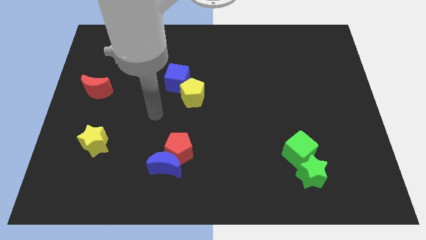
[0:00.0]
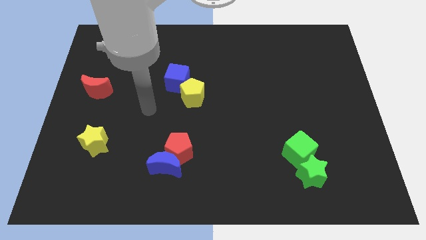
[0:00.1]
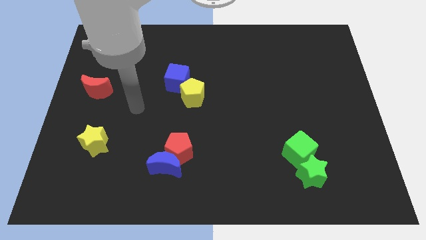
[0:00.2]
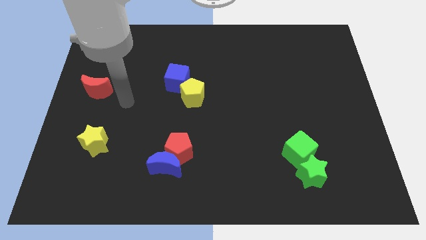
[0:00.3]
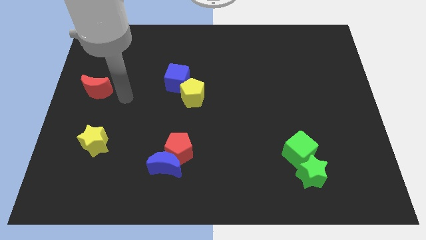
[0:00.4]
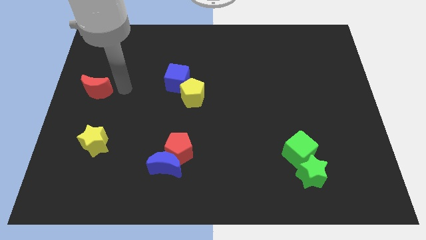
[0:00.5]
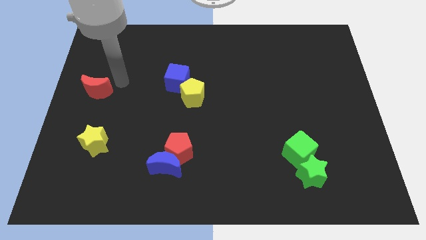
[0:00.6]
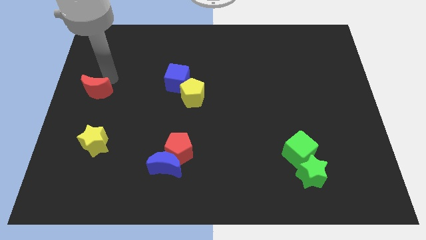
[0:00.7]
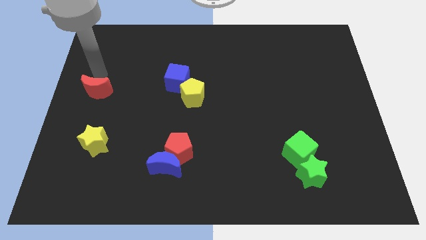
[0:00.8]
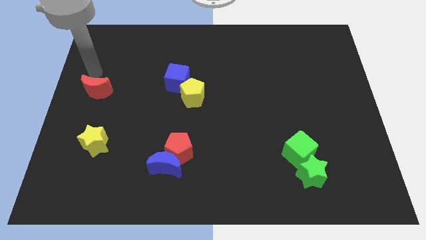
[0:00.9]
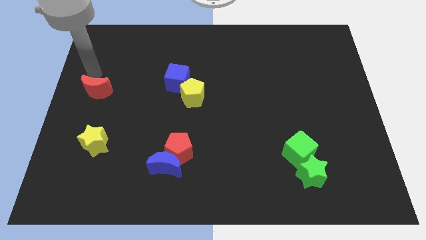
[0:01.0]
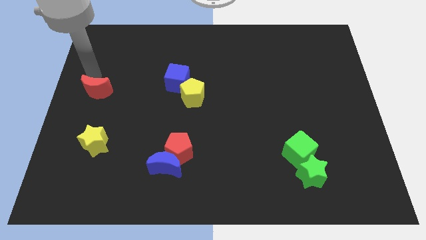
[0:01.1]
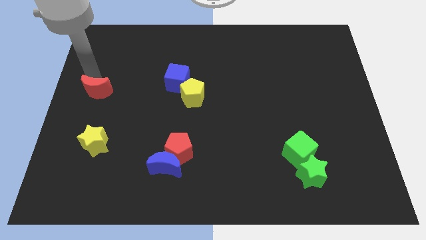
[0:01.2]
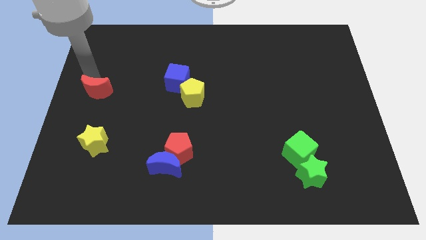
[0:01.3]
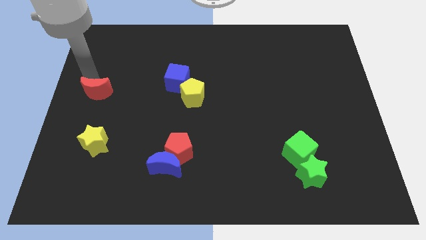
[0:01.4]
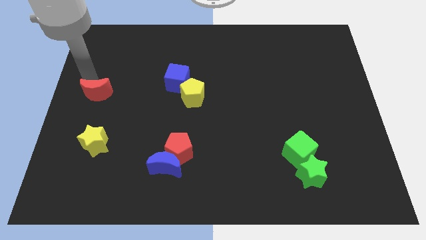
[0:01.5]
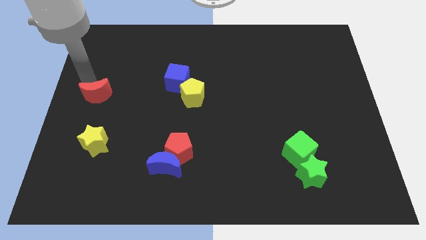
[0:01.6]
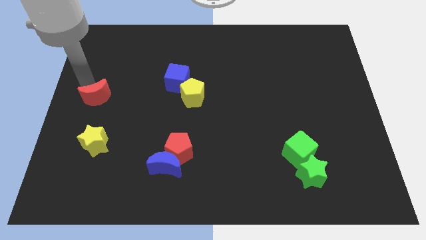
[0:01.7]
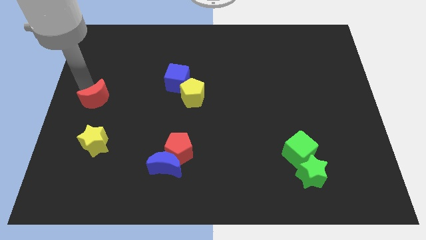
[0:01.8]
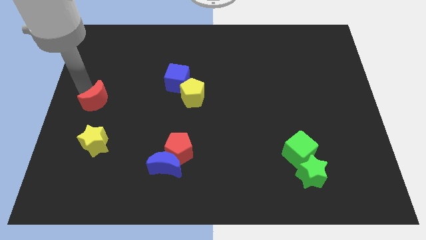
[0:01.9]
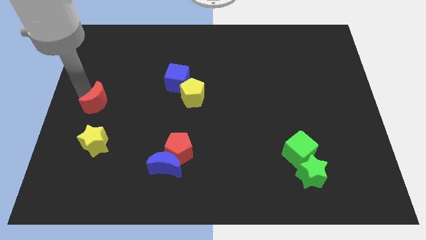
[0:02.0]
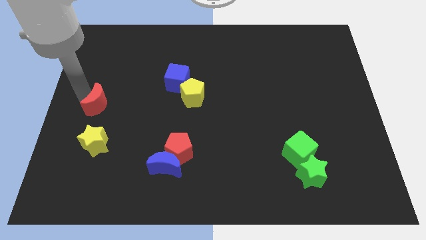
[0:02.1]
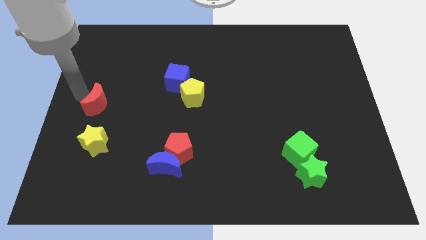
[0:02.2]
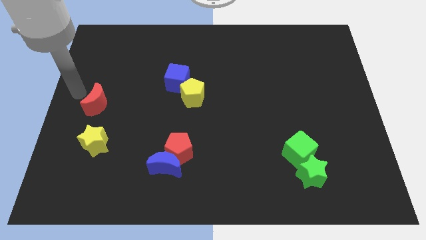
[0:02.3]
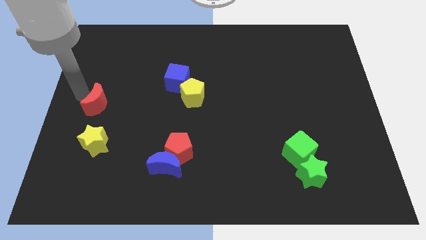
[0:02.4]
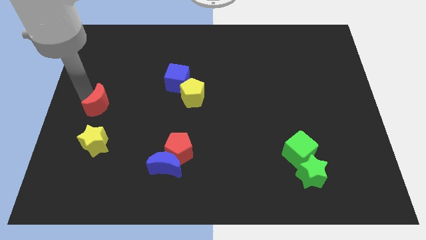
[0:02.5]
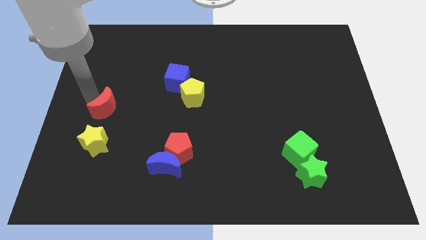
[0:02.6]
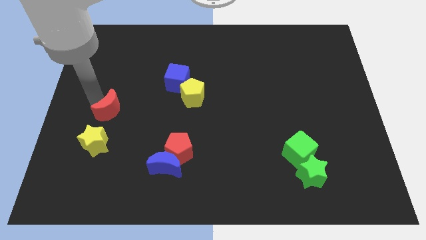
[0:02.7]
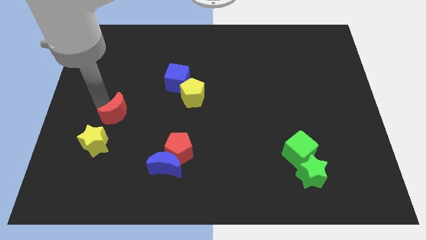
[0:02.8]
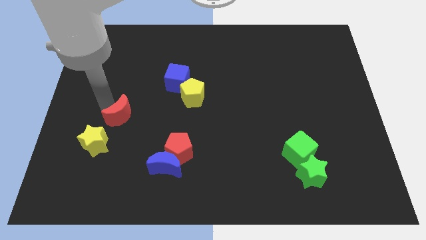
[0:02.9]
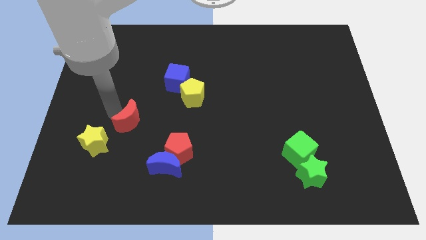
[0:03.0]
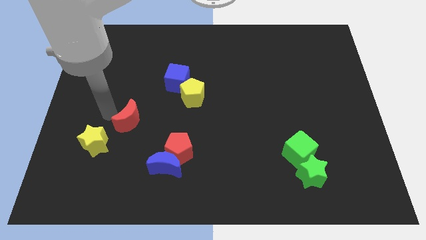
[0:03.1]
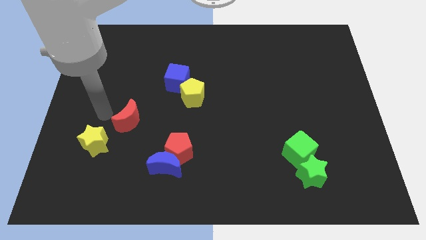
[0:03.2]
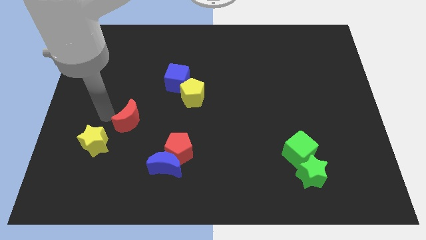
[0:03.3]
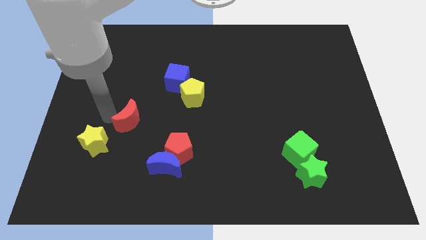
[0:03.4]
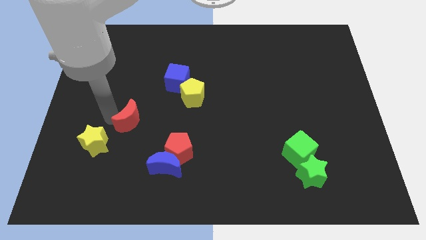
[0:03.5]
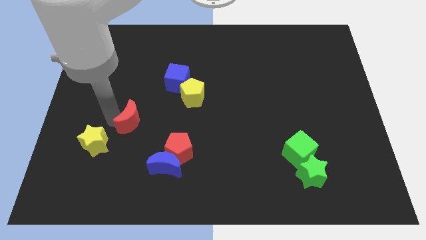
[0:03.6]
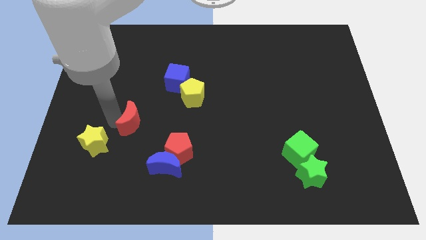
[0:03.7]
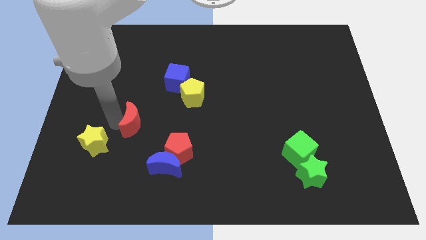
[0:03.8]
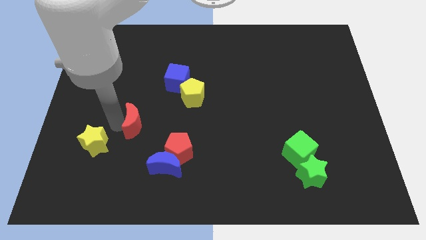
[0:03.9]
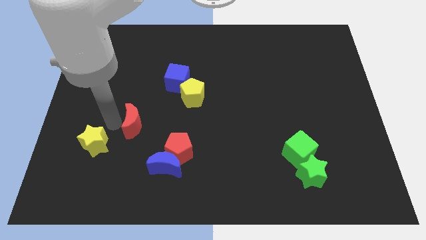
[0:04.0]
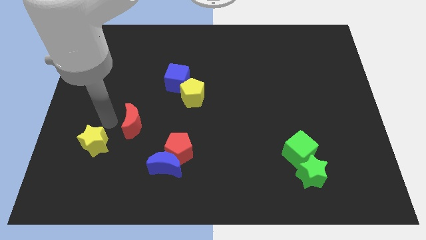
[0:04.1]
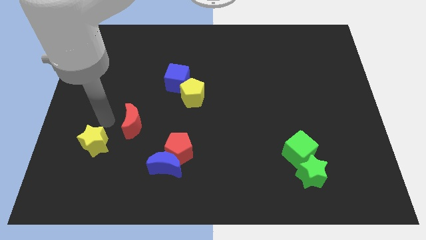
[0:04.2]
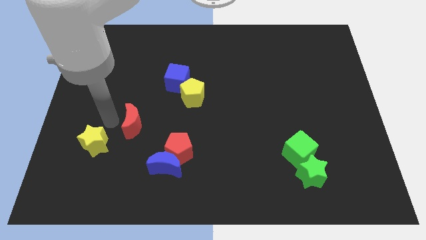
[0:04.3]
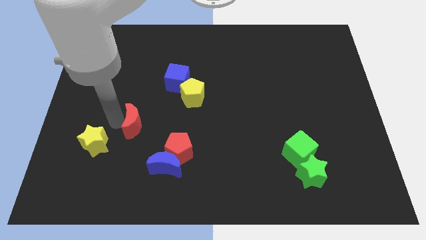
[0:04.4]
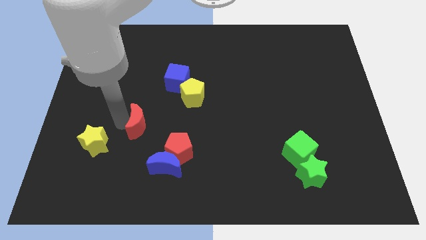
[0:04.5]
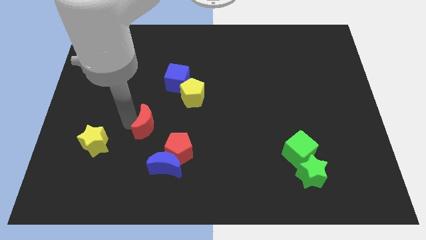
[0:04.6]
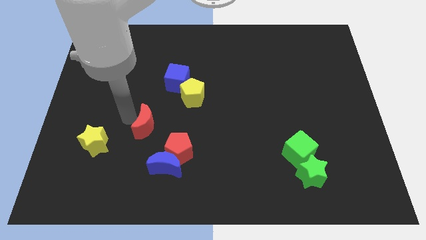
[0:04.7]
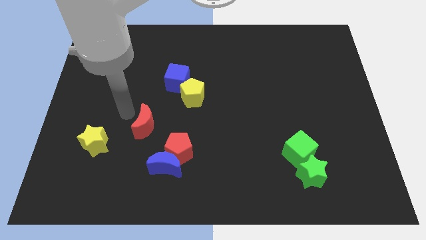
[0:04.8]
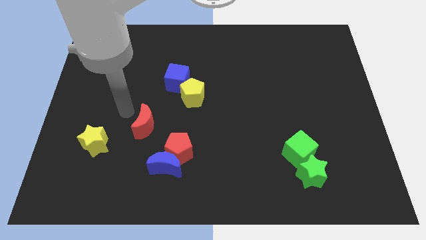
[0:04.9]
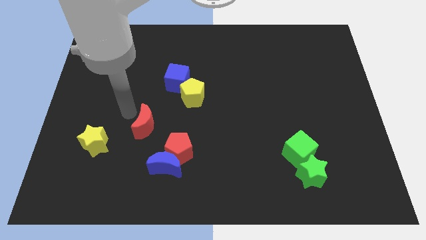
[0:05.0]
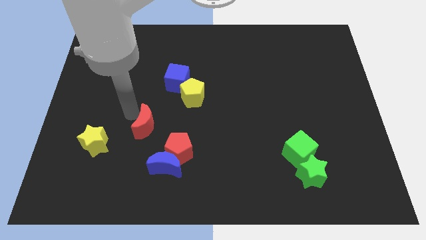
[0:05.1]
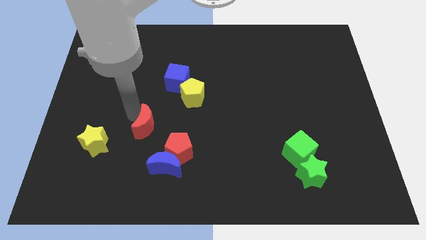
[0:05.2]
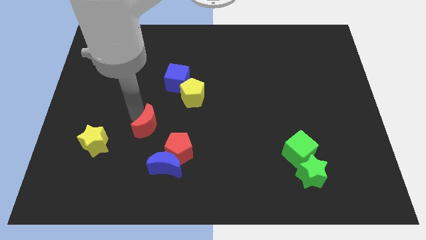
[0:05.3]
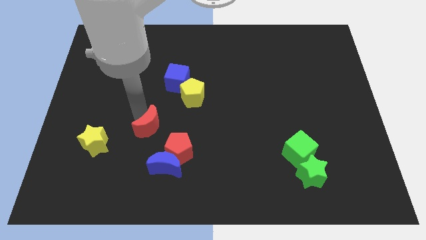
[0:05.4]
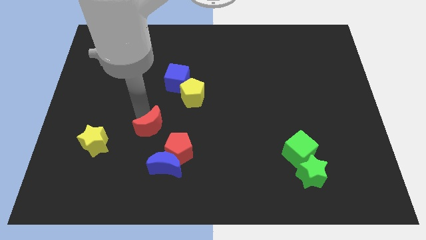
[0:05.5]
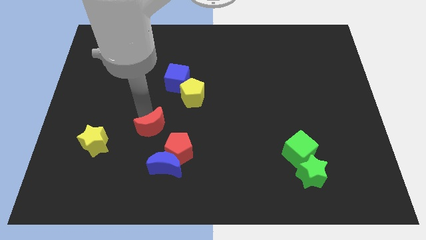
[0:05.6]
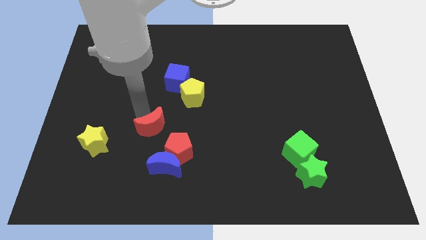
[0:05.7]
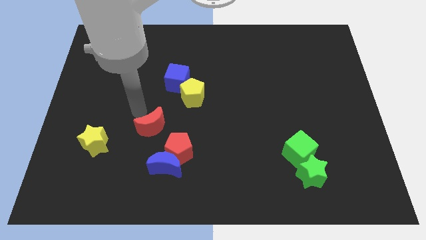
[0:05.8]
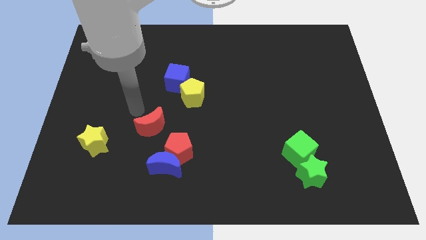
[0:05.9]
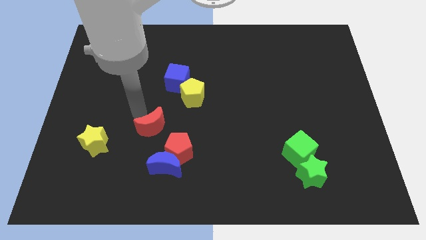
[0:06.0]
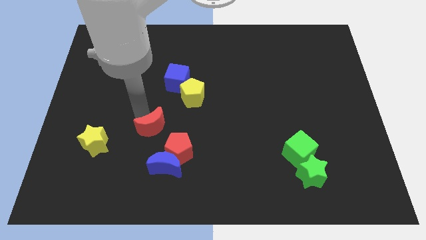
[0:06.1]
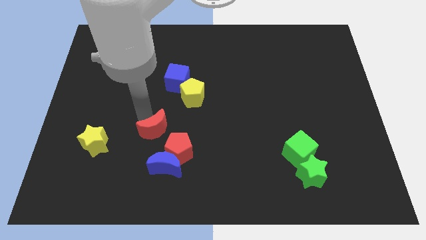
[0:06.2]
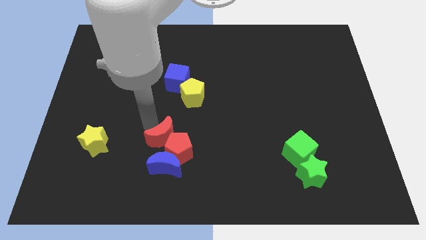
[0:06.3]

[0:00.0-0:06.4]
slide the red moon close to the red pentagon

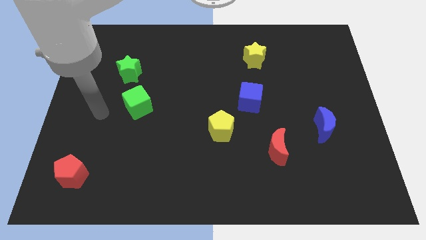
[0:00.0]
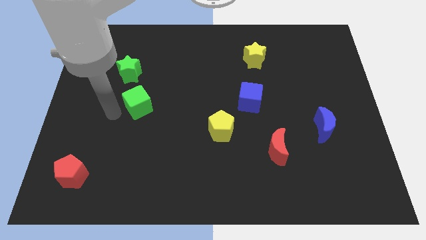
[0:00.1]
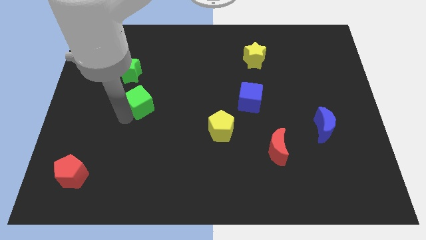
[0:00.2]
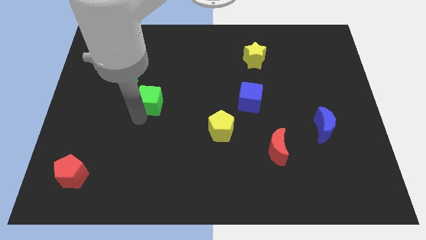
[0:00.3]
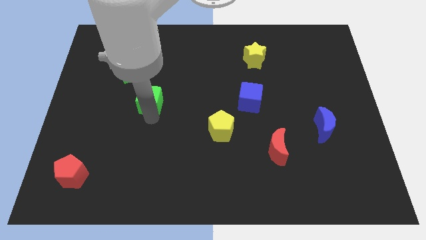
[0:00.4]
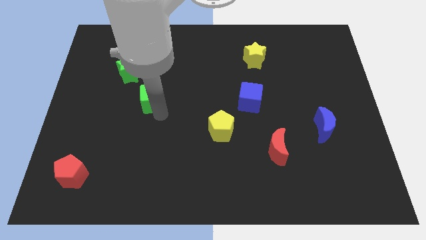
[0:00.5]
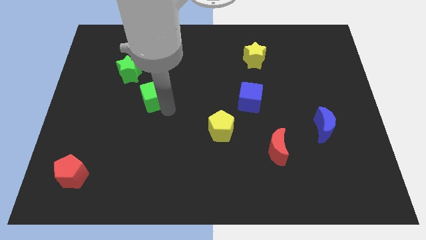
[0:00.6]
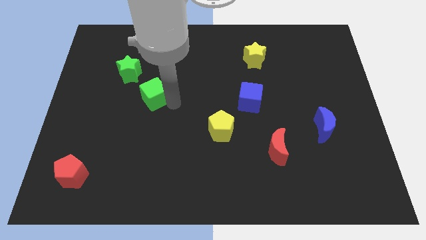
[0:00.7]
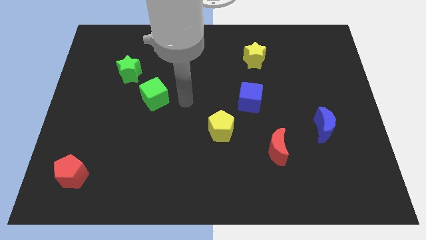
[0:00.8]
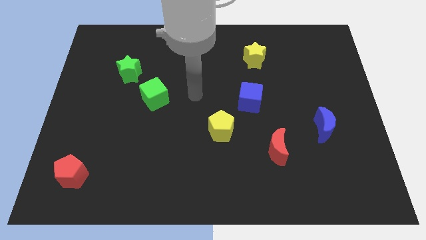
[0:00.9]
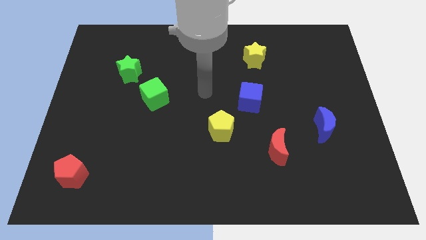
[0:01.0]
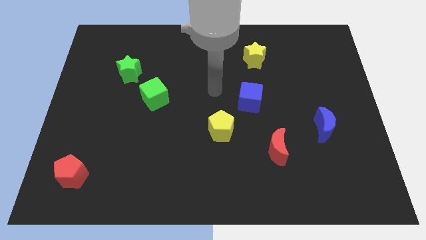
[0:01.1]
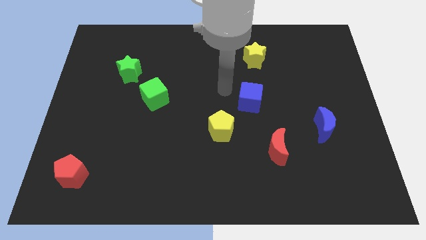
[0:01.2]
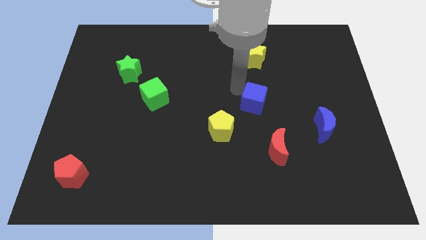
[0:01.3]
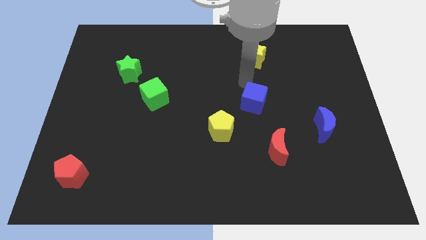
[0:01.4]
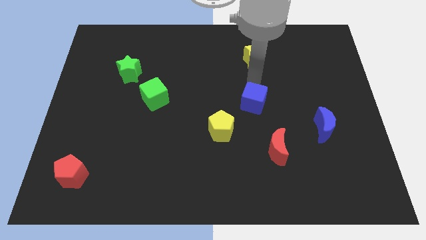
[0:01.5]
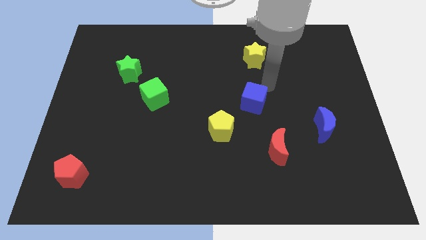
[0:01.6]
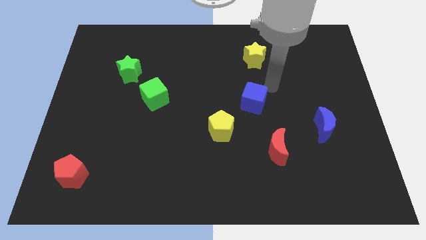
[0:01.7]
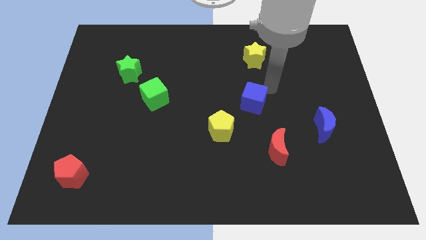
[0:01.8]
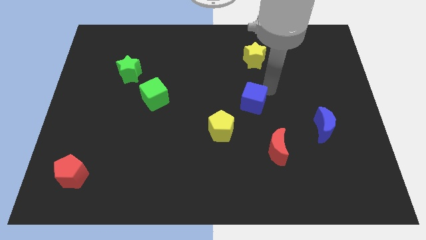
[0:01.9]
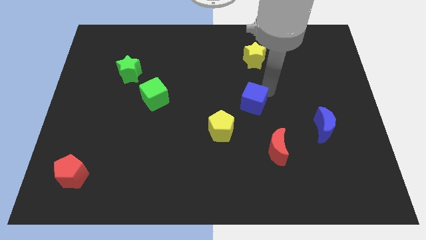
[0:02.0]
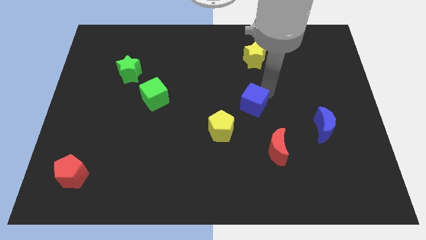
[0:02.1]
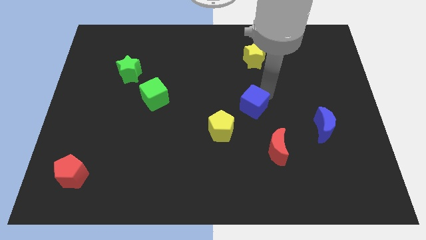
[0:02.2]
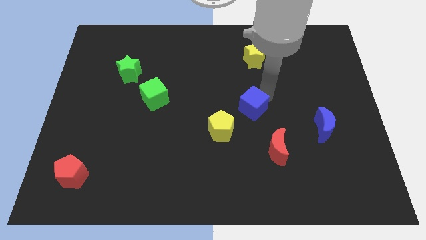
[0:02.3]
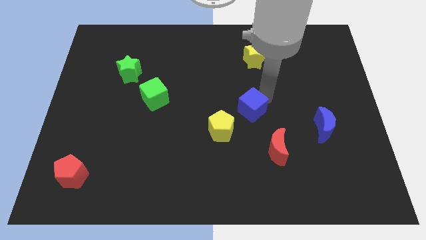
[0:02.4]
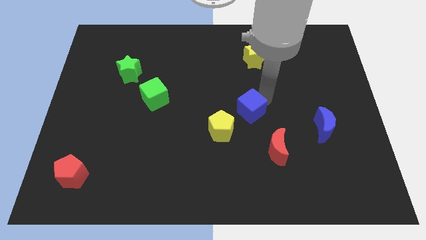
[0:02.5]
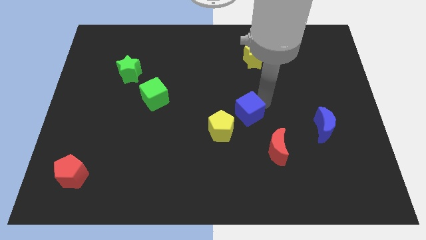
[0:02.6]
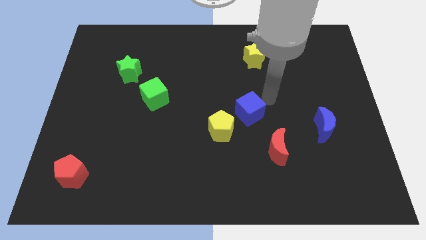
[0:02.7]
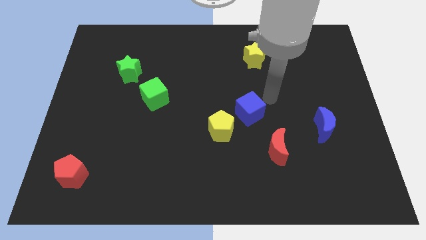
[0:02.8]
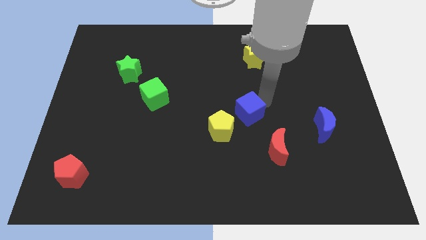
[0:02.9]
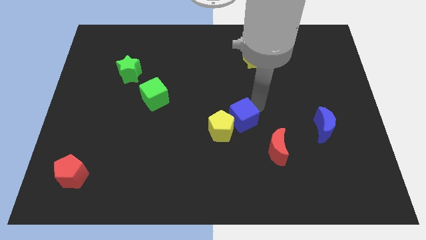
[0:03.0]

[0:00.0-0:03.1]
move the blue cube close to the yellow pentagon
